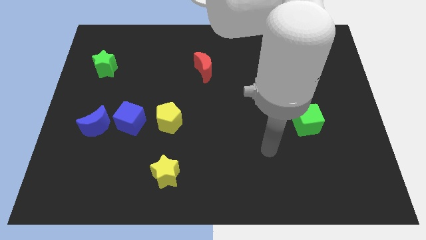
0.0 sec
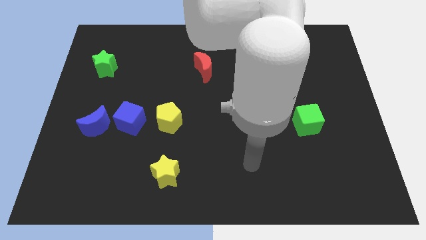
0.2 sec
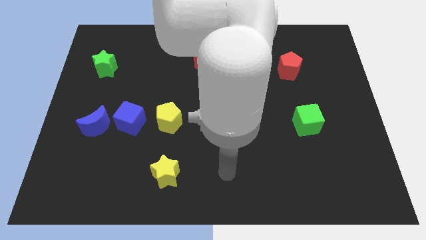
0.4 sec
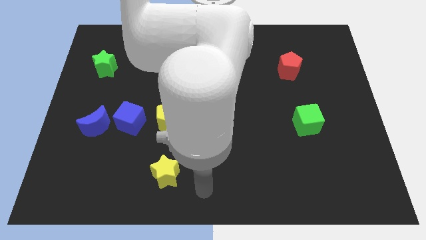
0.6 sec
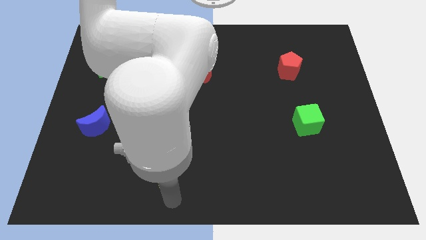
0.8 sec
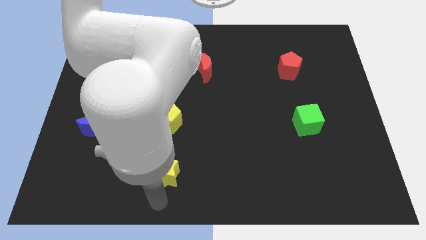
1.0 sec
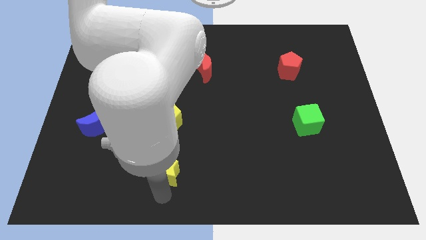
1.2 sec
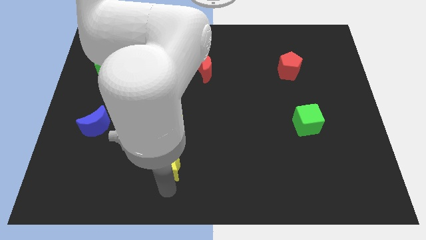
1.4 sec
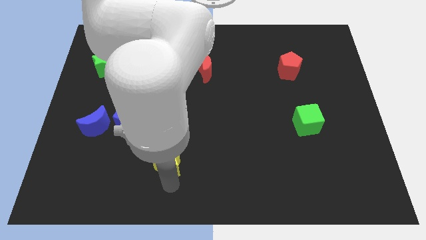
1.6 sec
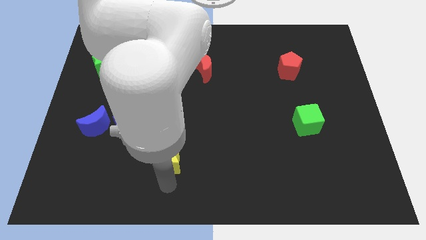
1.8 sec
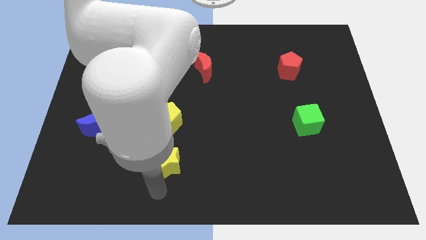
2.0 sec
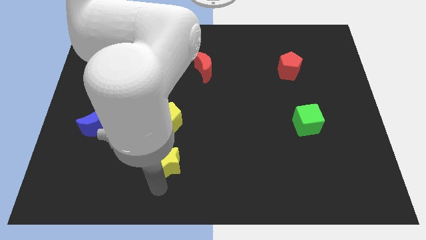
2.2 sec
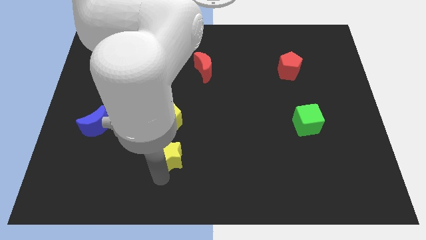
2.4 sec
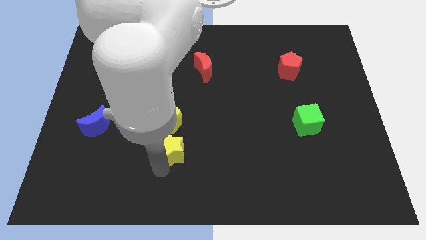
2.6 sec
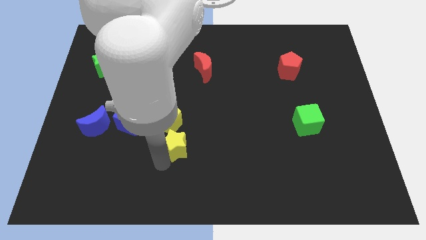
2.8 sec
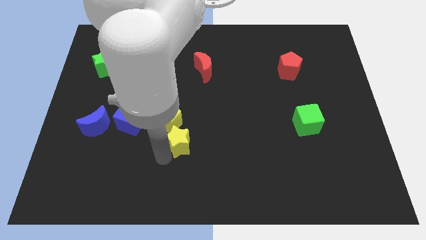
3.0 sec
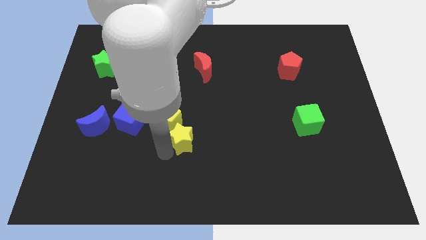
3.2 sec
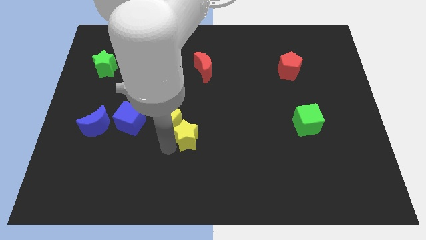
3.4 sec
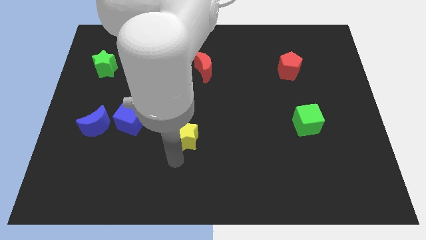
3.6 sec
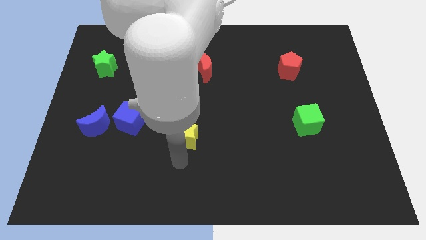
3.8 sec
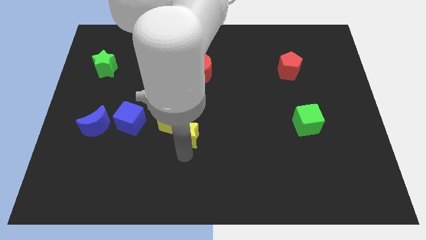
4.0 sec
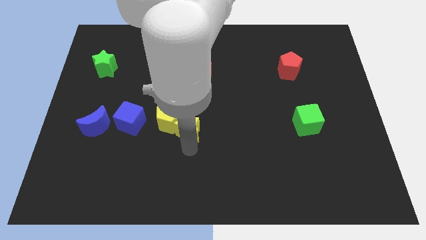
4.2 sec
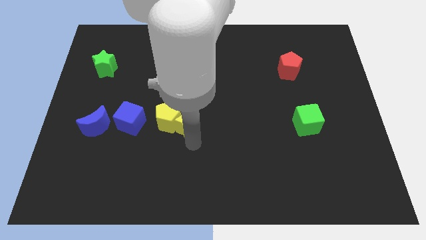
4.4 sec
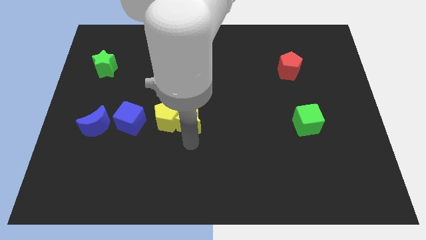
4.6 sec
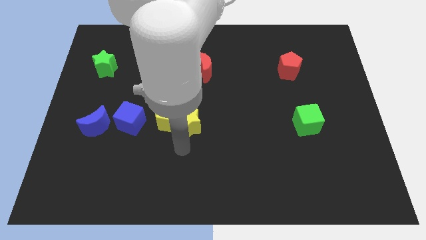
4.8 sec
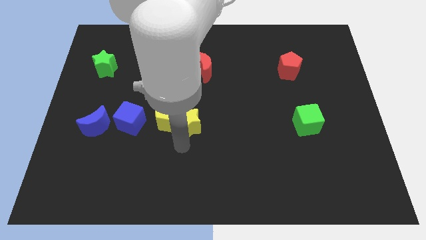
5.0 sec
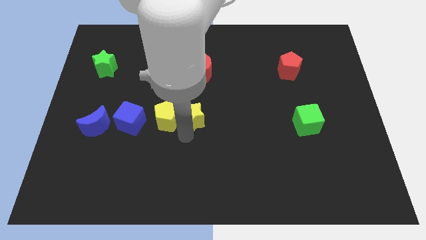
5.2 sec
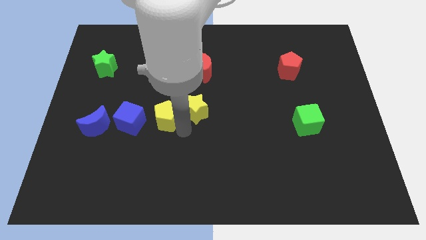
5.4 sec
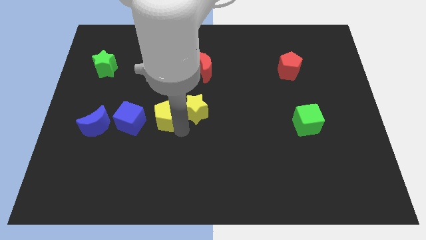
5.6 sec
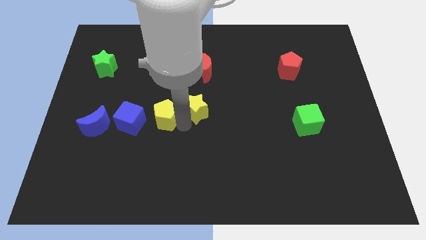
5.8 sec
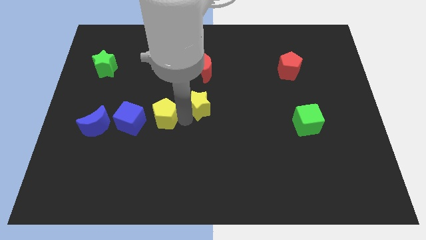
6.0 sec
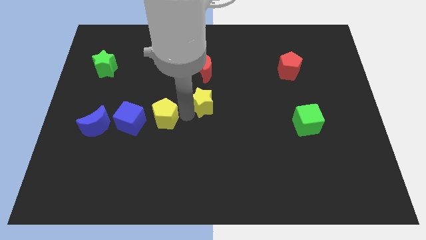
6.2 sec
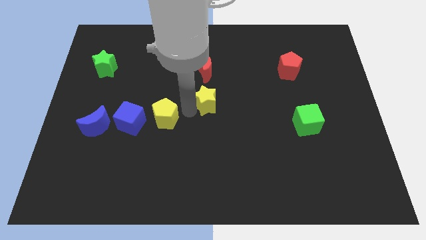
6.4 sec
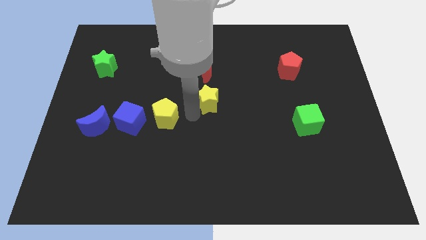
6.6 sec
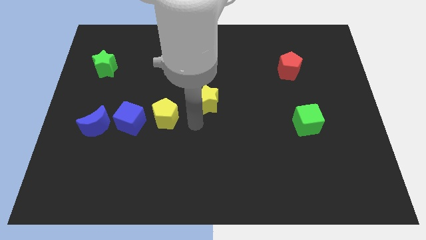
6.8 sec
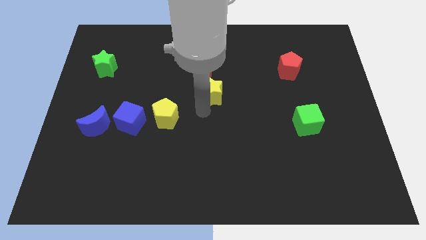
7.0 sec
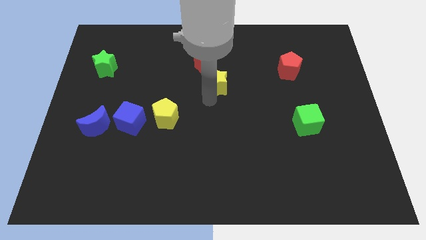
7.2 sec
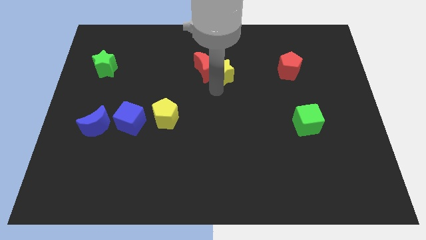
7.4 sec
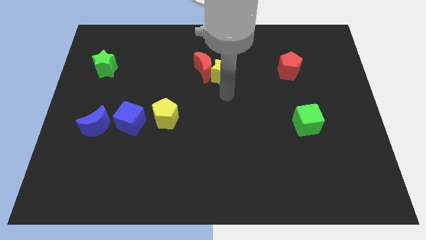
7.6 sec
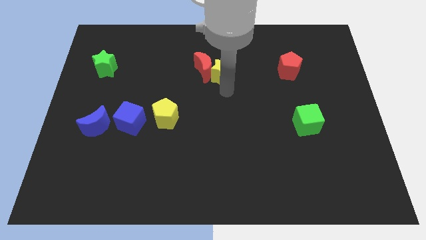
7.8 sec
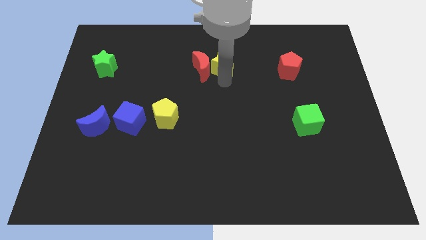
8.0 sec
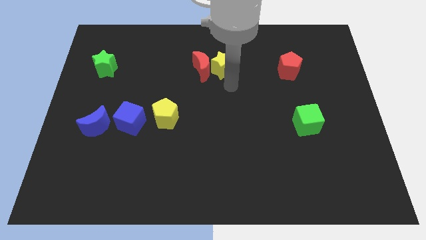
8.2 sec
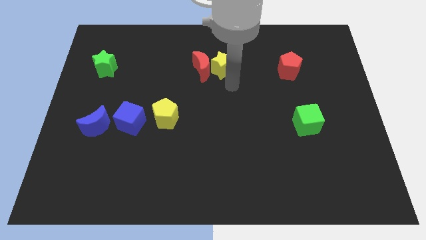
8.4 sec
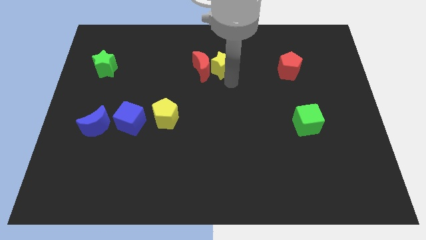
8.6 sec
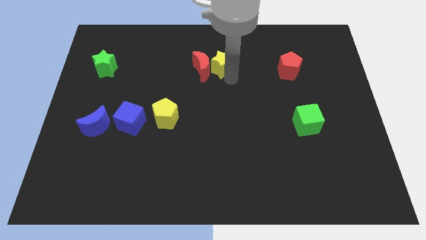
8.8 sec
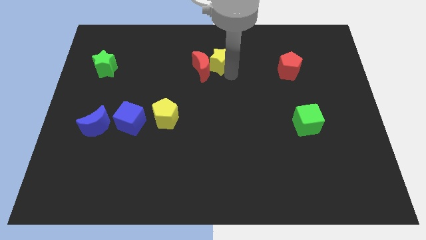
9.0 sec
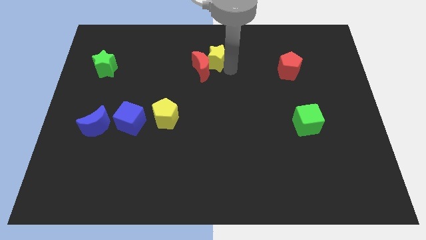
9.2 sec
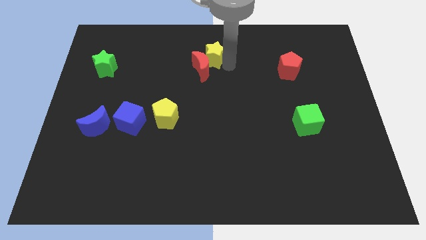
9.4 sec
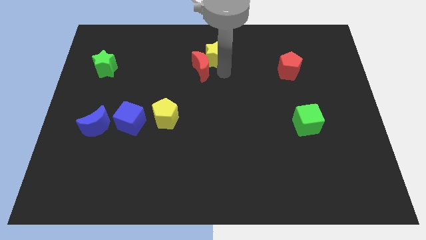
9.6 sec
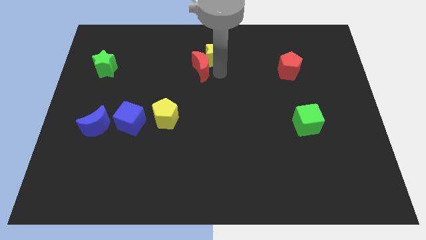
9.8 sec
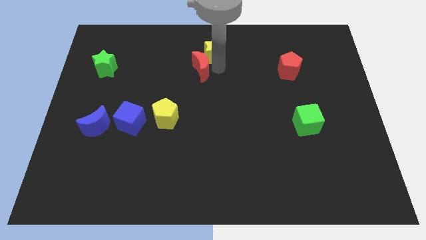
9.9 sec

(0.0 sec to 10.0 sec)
move the yellow star to the top side

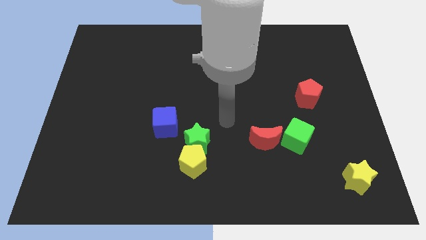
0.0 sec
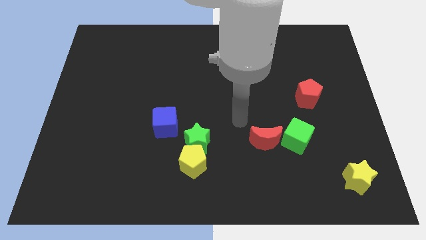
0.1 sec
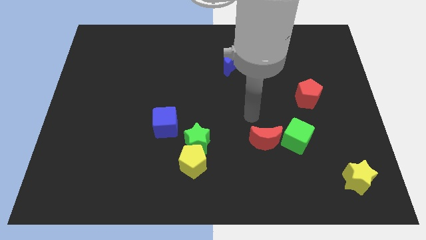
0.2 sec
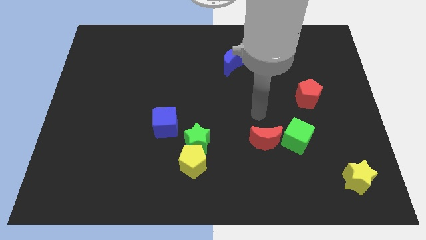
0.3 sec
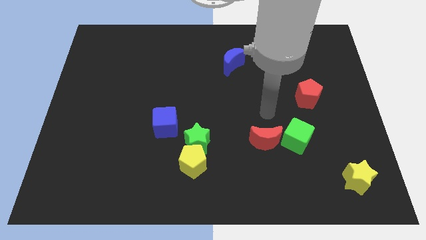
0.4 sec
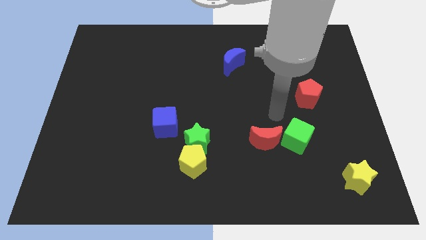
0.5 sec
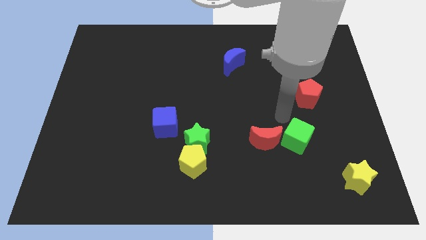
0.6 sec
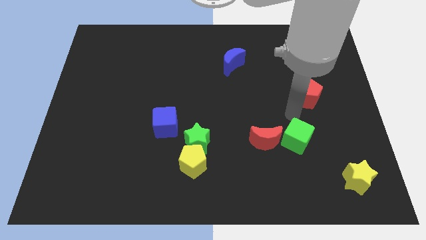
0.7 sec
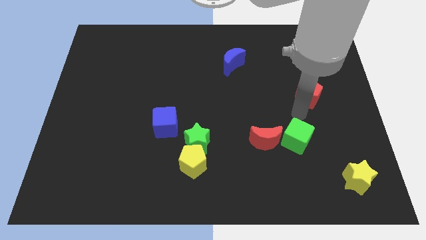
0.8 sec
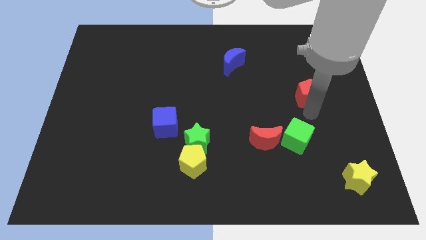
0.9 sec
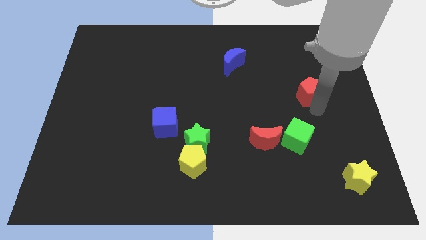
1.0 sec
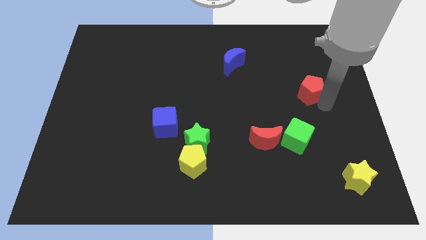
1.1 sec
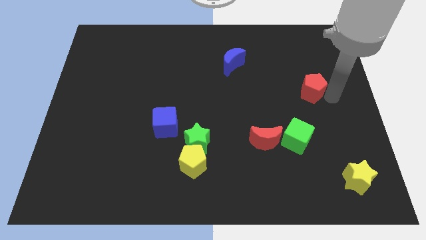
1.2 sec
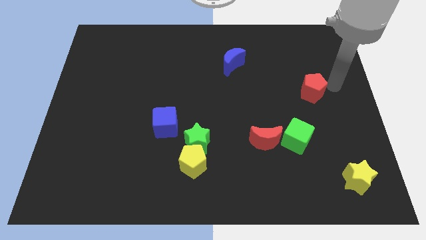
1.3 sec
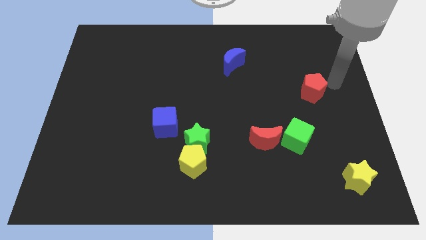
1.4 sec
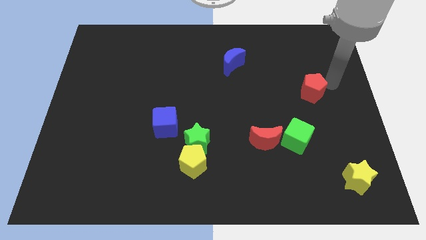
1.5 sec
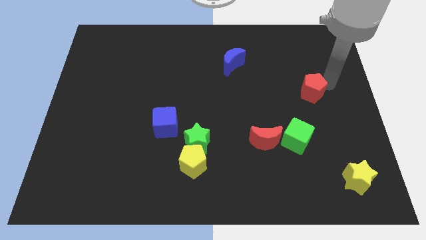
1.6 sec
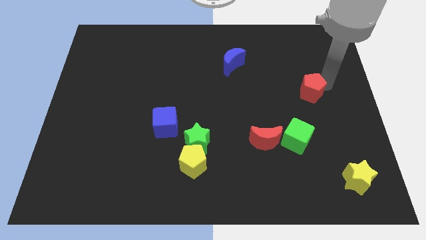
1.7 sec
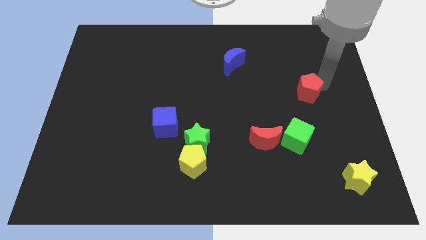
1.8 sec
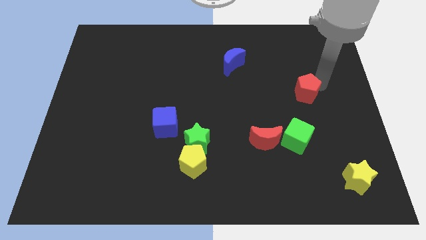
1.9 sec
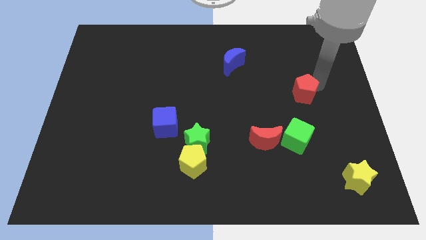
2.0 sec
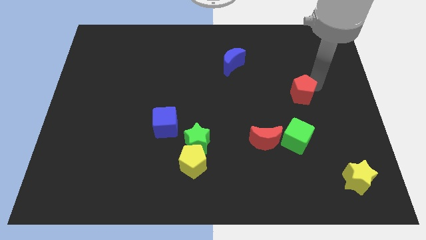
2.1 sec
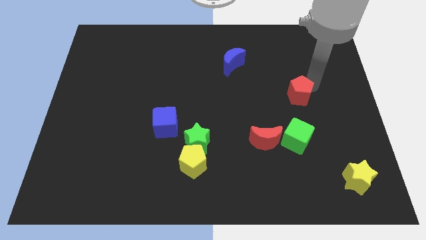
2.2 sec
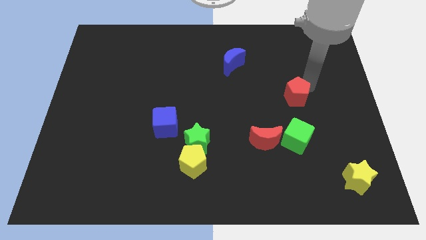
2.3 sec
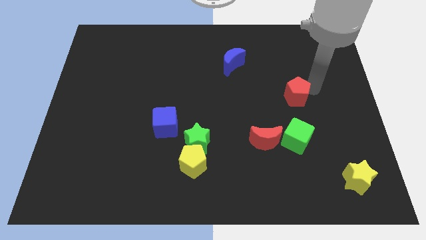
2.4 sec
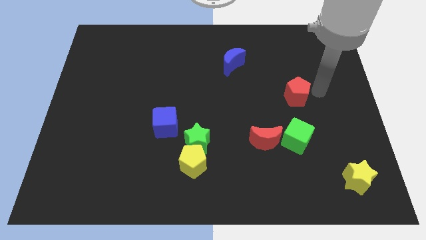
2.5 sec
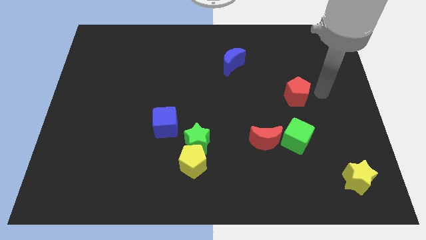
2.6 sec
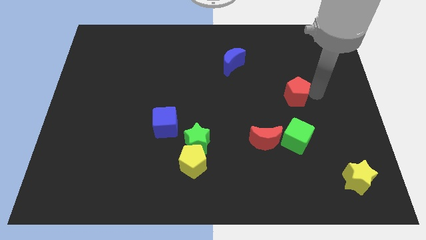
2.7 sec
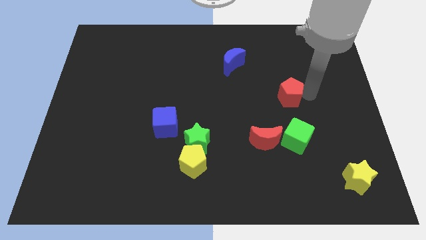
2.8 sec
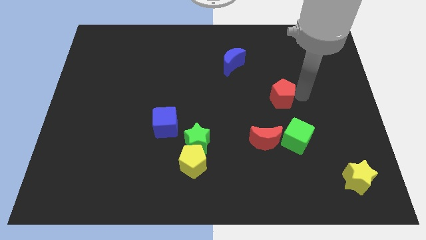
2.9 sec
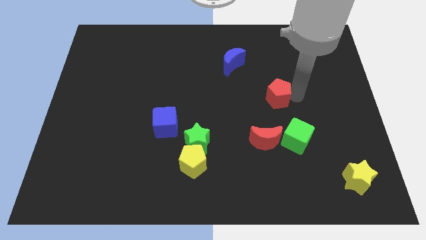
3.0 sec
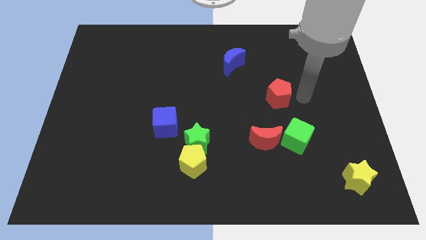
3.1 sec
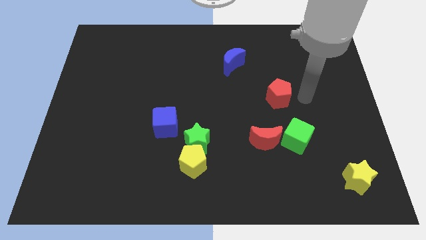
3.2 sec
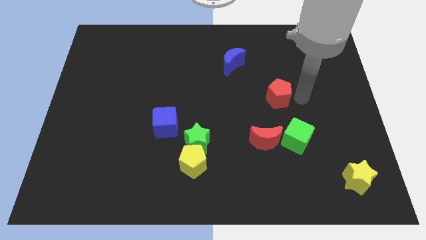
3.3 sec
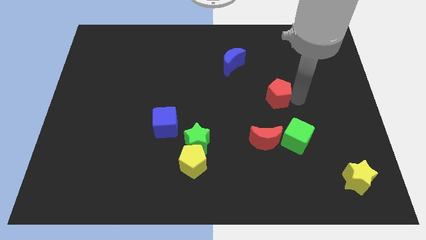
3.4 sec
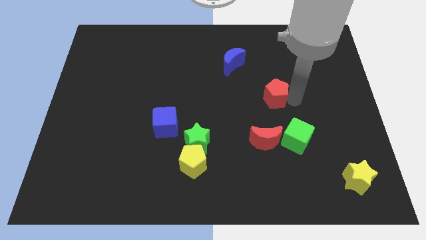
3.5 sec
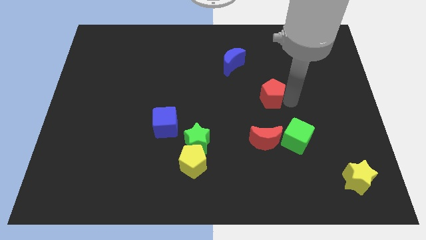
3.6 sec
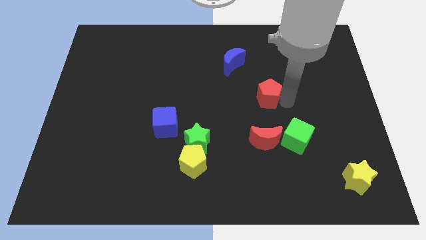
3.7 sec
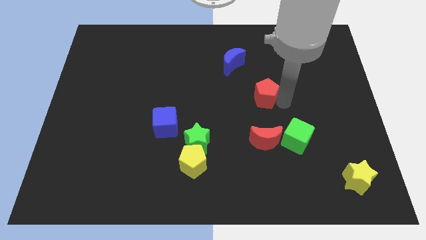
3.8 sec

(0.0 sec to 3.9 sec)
put the red pentagon to the middle
